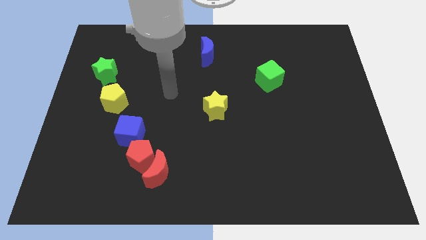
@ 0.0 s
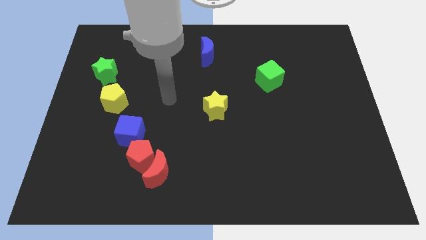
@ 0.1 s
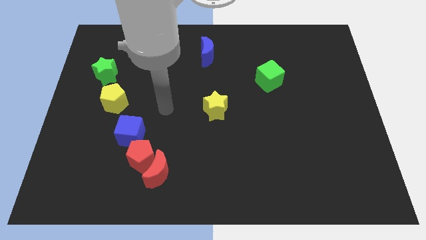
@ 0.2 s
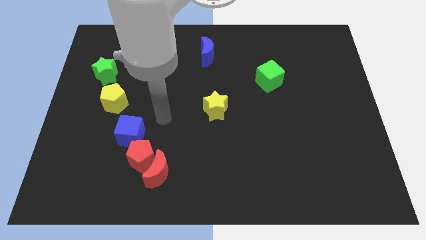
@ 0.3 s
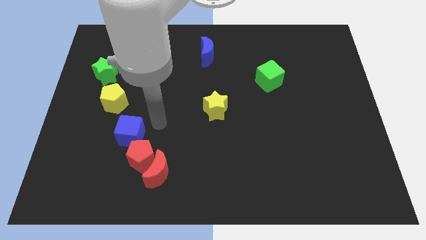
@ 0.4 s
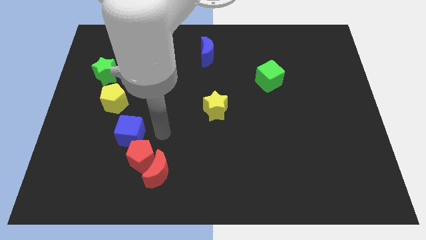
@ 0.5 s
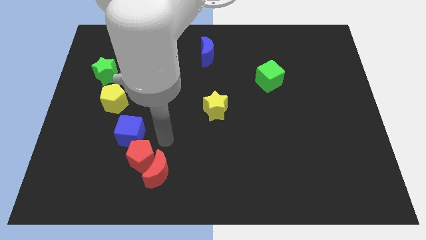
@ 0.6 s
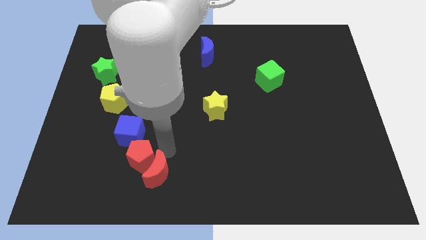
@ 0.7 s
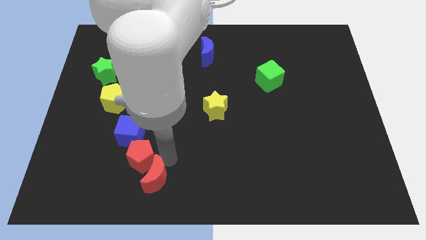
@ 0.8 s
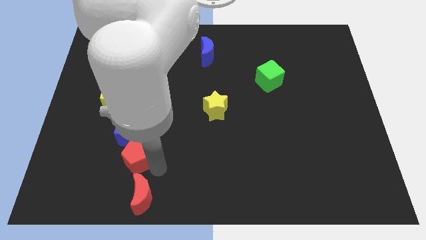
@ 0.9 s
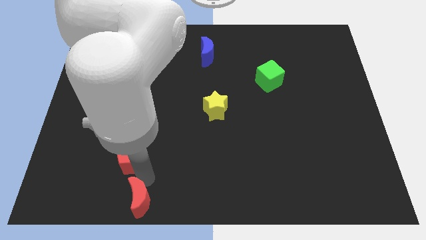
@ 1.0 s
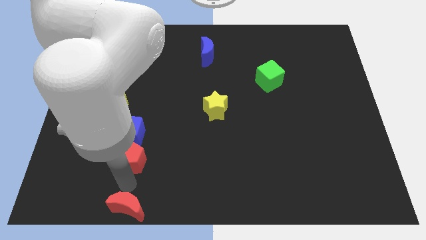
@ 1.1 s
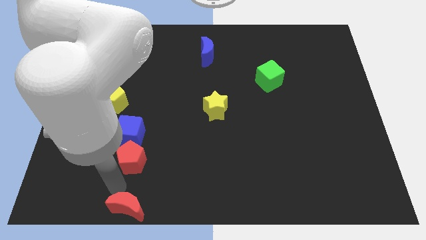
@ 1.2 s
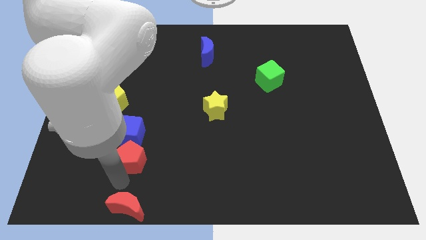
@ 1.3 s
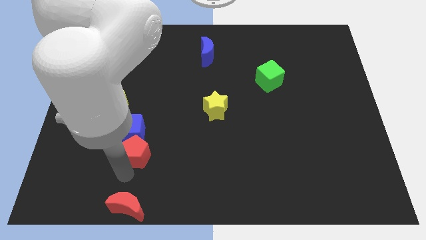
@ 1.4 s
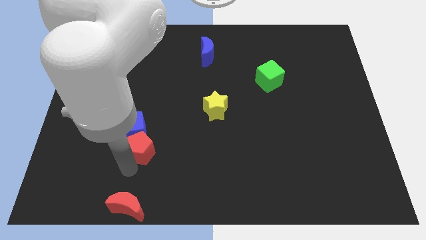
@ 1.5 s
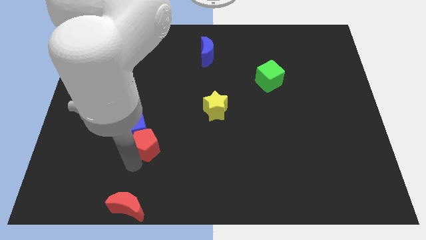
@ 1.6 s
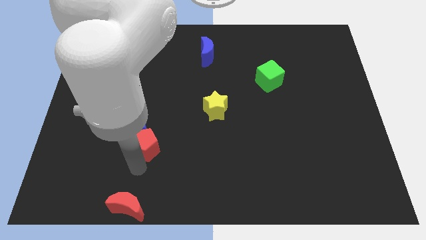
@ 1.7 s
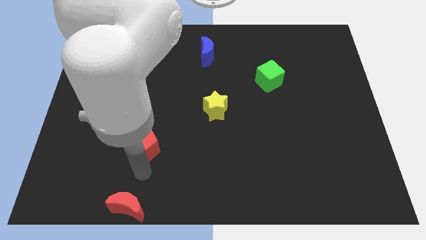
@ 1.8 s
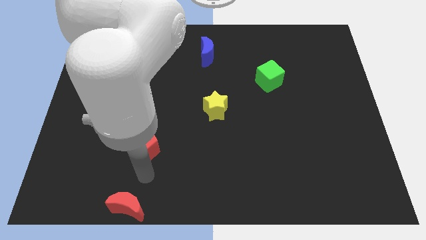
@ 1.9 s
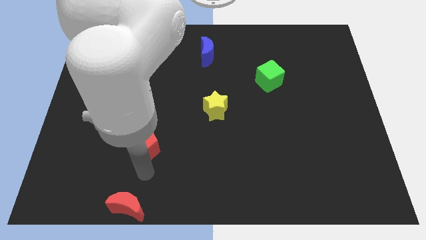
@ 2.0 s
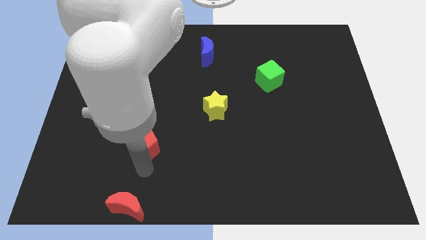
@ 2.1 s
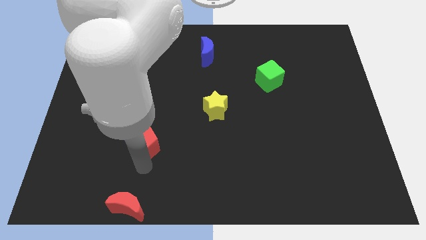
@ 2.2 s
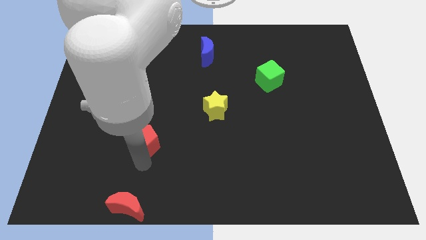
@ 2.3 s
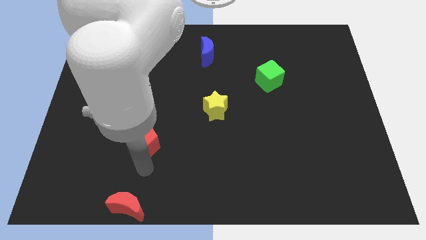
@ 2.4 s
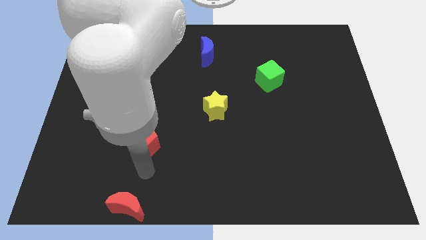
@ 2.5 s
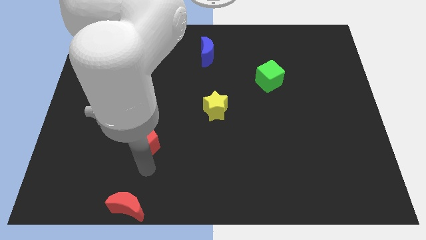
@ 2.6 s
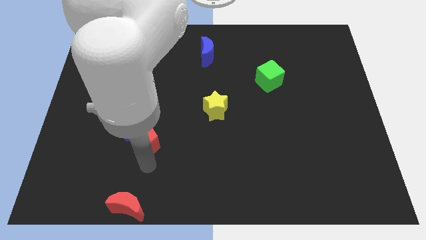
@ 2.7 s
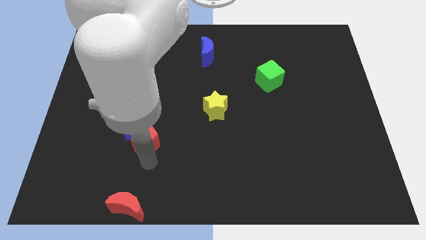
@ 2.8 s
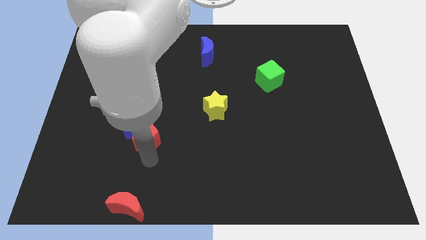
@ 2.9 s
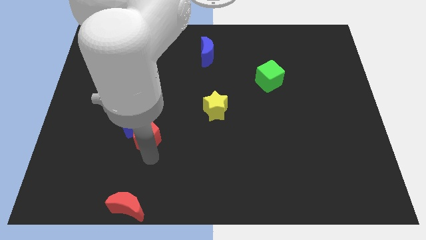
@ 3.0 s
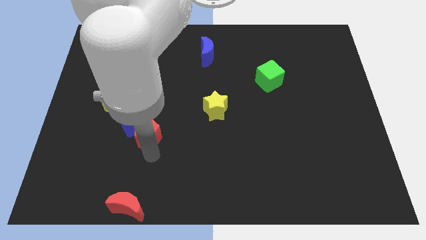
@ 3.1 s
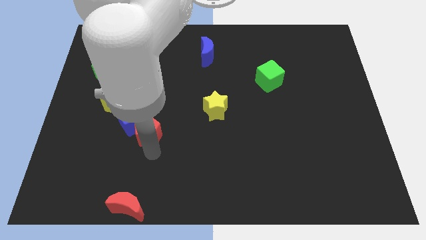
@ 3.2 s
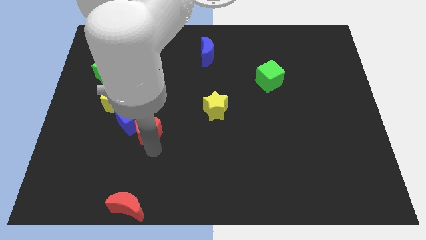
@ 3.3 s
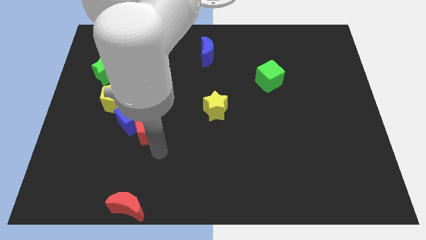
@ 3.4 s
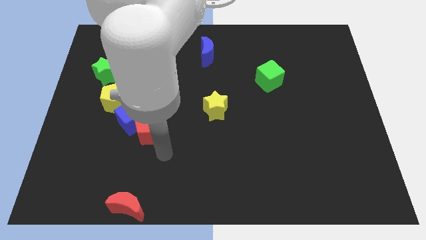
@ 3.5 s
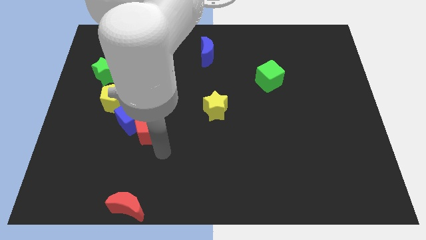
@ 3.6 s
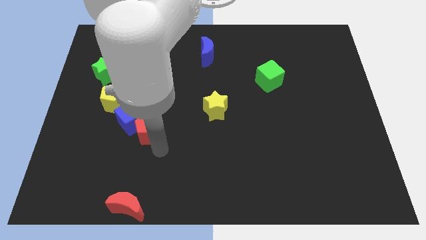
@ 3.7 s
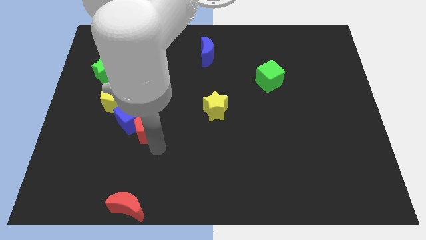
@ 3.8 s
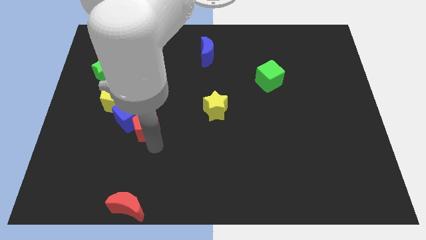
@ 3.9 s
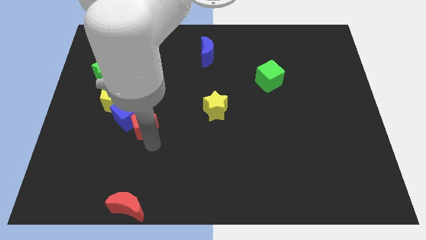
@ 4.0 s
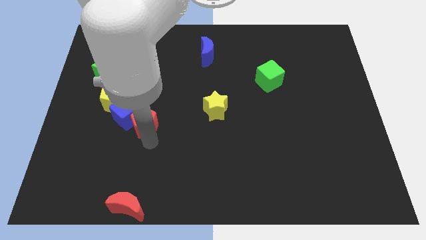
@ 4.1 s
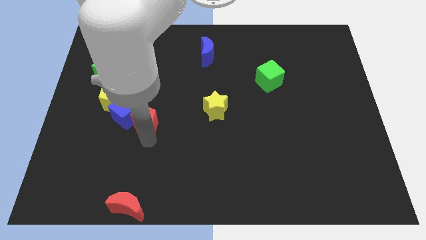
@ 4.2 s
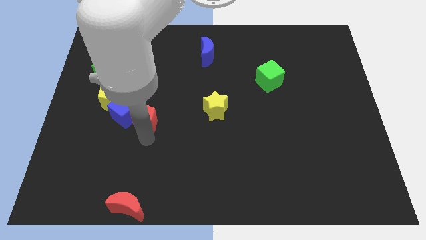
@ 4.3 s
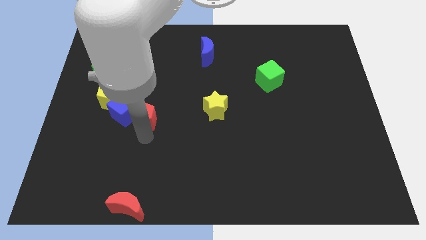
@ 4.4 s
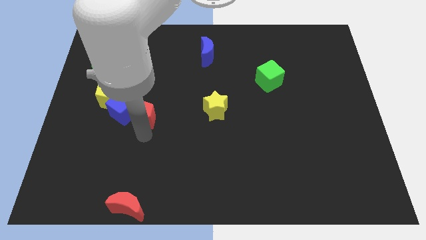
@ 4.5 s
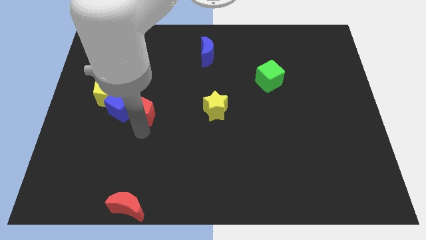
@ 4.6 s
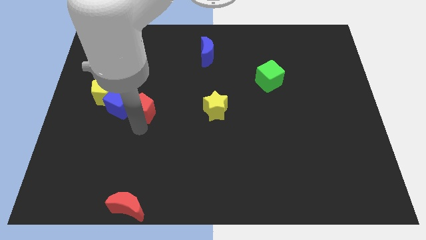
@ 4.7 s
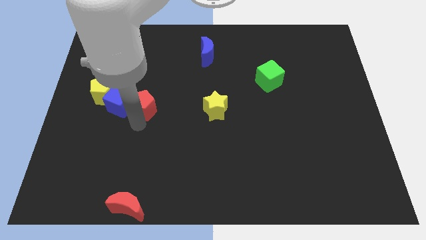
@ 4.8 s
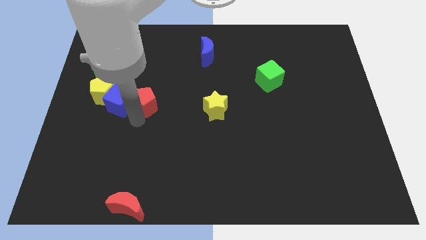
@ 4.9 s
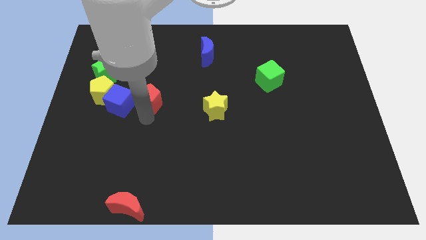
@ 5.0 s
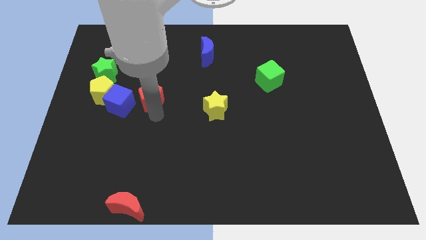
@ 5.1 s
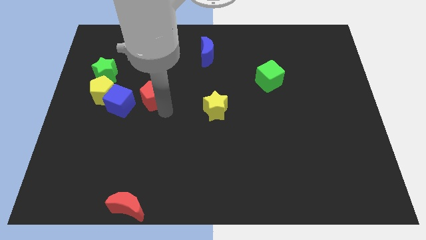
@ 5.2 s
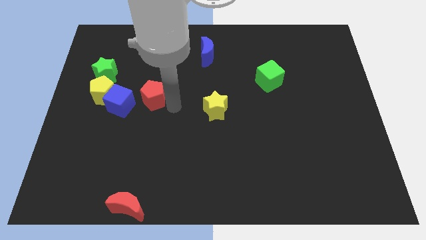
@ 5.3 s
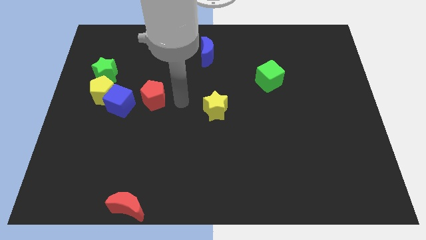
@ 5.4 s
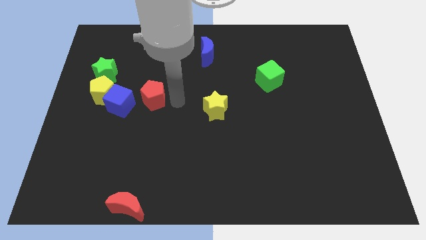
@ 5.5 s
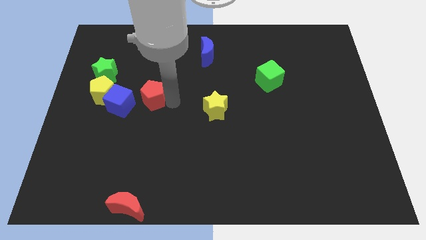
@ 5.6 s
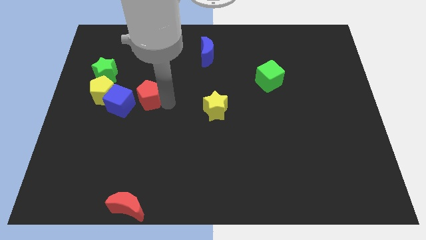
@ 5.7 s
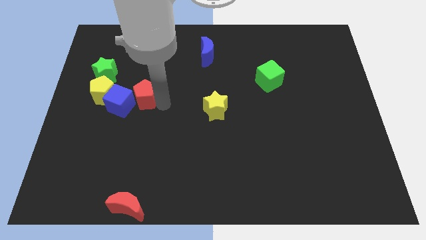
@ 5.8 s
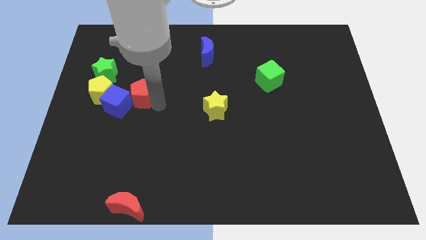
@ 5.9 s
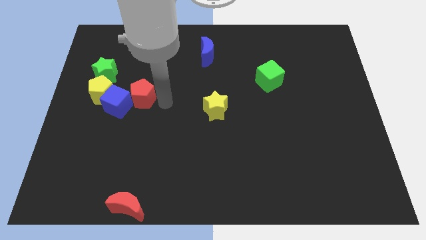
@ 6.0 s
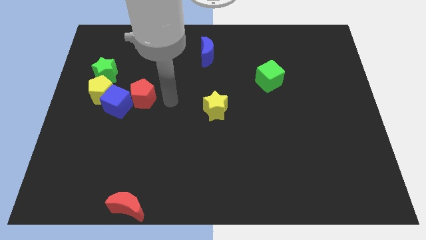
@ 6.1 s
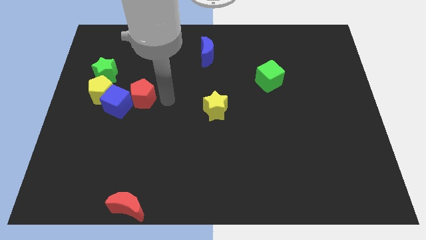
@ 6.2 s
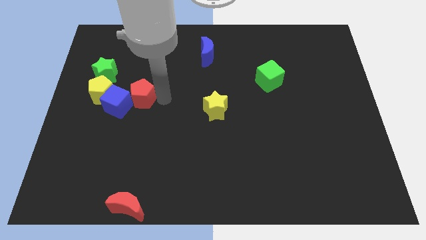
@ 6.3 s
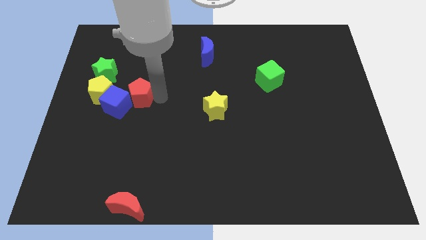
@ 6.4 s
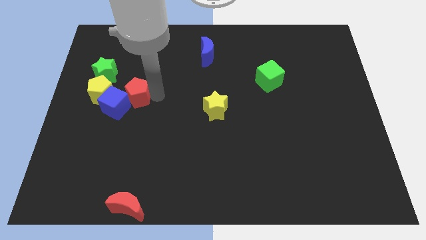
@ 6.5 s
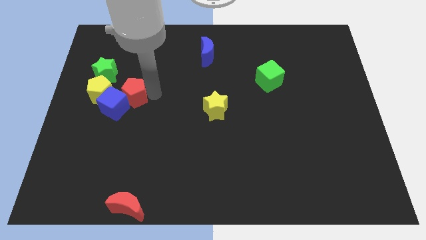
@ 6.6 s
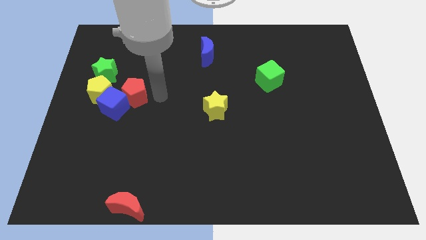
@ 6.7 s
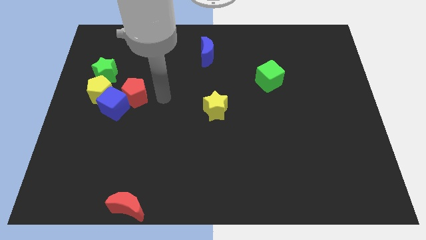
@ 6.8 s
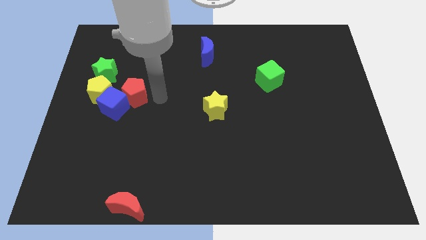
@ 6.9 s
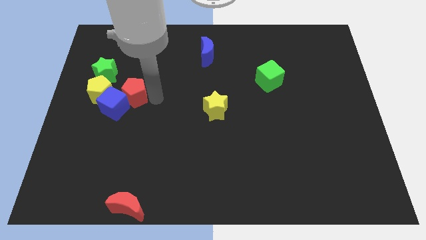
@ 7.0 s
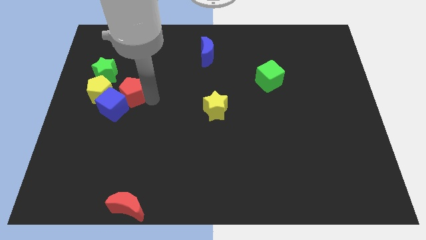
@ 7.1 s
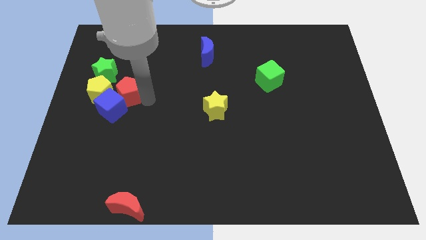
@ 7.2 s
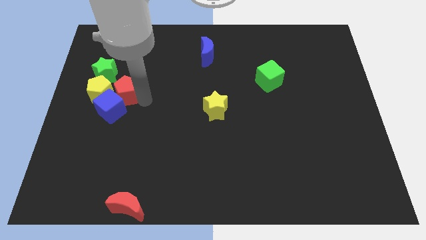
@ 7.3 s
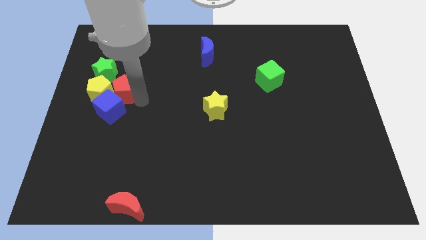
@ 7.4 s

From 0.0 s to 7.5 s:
slide the red pentagon towards the yellow pentagon

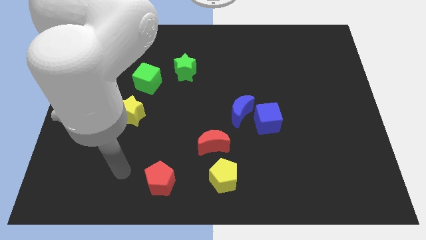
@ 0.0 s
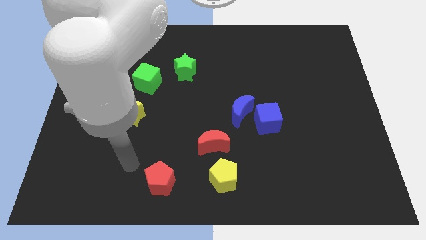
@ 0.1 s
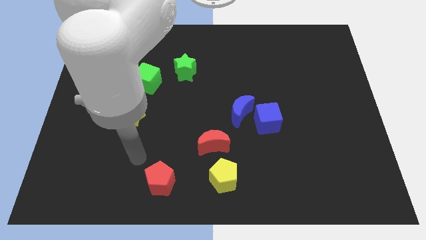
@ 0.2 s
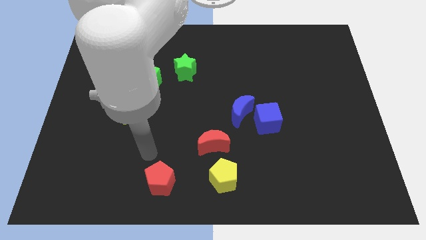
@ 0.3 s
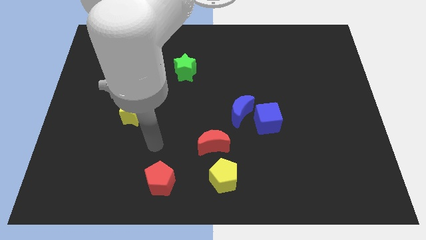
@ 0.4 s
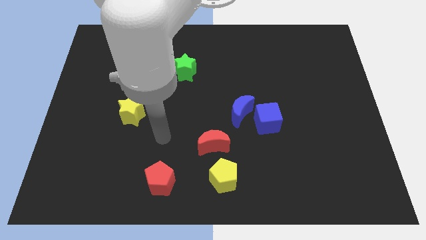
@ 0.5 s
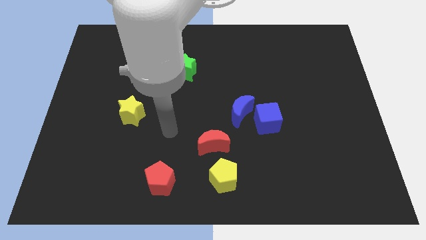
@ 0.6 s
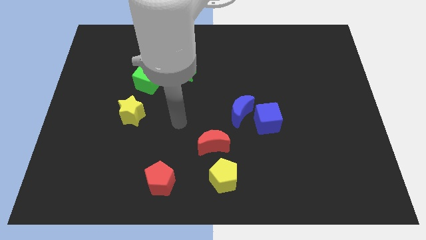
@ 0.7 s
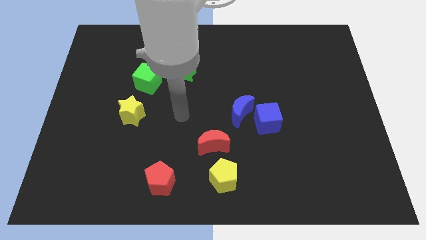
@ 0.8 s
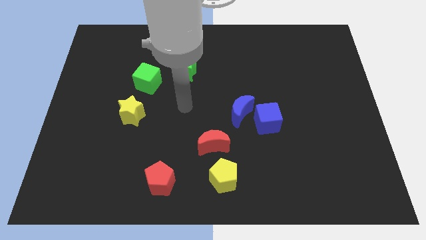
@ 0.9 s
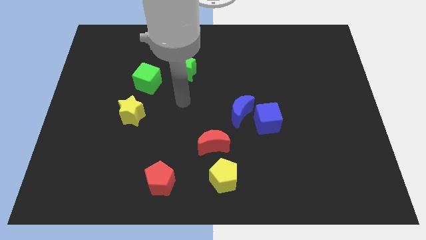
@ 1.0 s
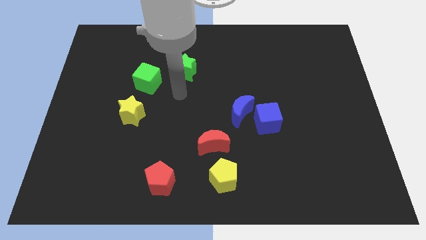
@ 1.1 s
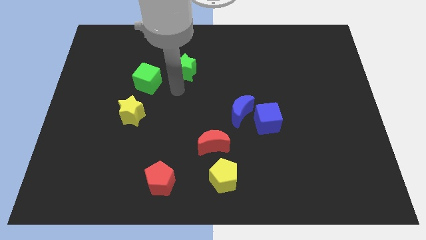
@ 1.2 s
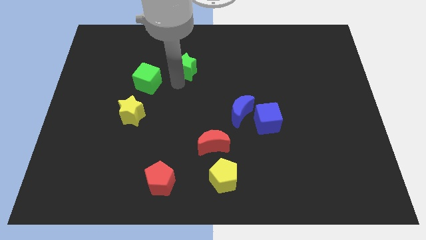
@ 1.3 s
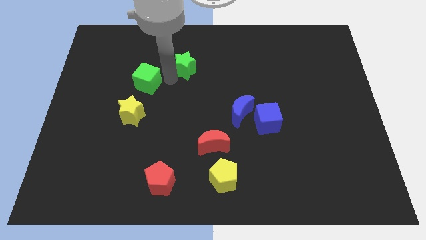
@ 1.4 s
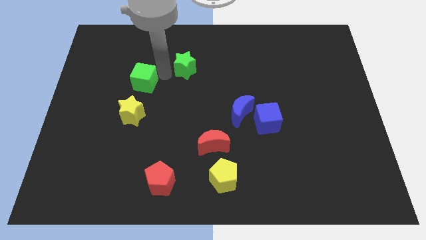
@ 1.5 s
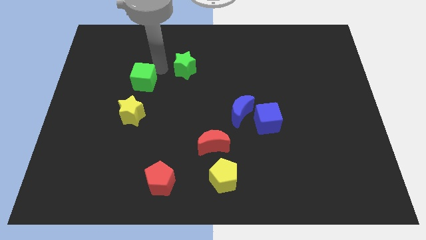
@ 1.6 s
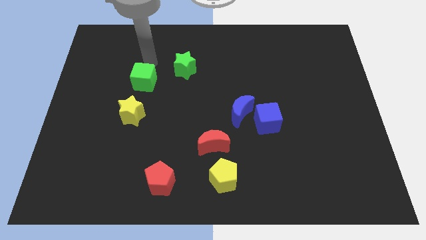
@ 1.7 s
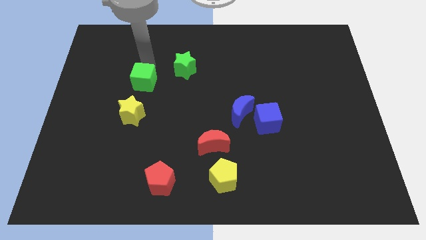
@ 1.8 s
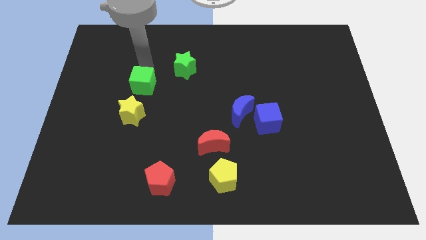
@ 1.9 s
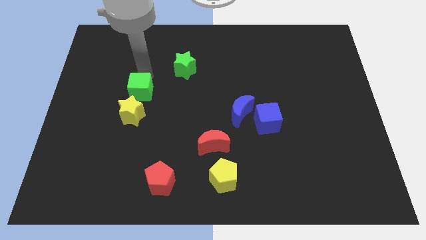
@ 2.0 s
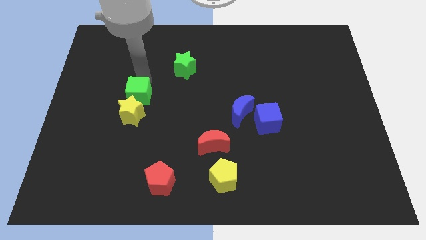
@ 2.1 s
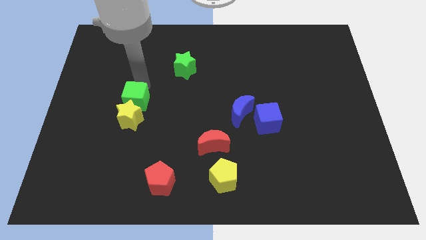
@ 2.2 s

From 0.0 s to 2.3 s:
push the green cube towards the yellow star
